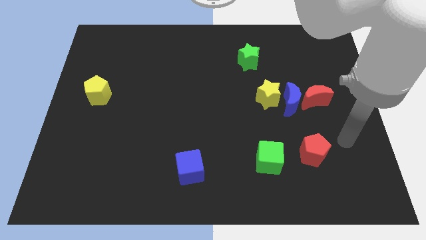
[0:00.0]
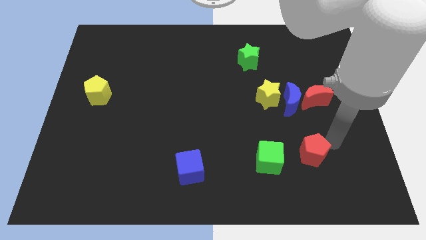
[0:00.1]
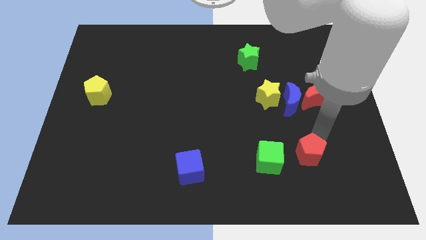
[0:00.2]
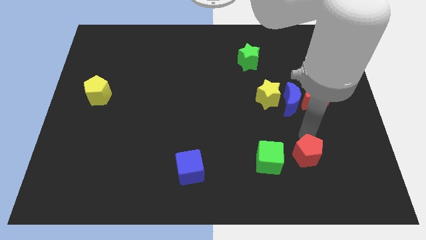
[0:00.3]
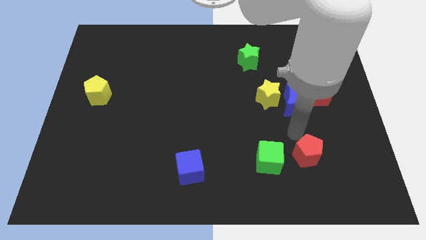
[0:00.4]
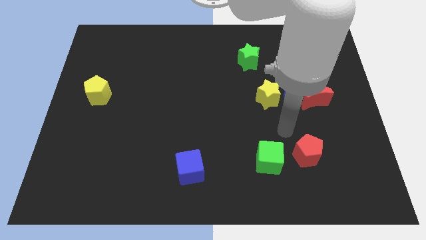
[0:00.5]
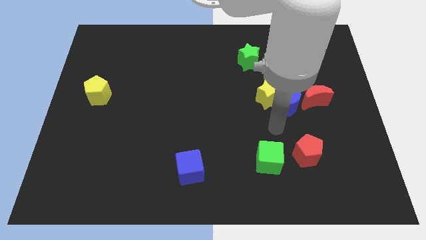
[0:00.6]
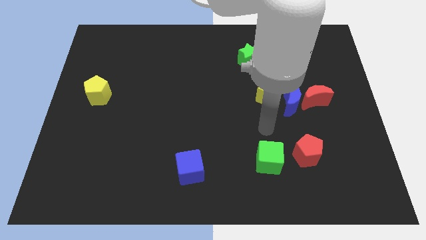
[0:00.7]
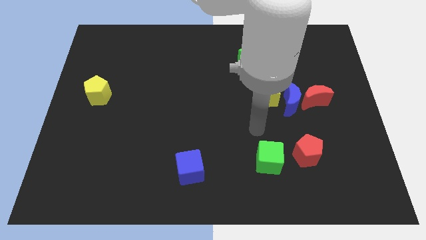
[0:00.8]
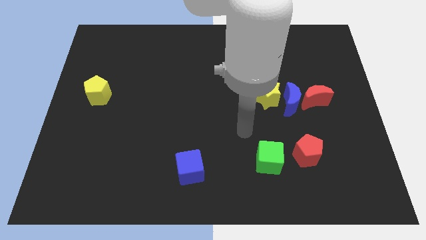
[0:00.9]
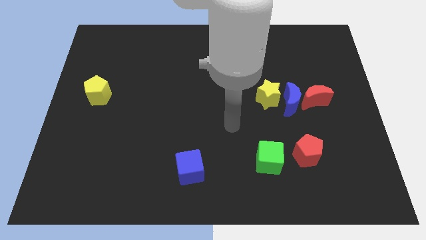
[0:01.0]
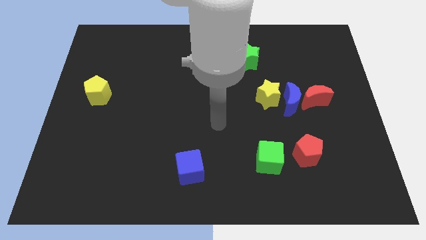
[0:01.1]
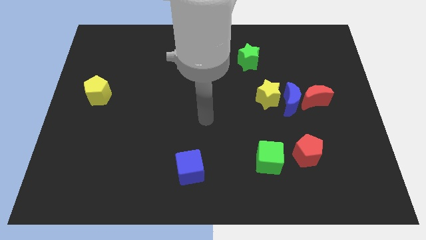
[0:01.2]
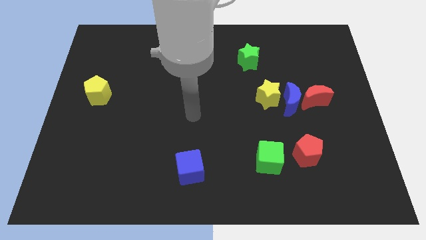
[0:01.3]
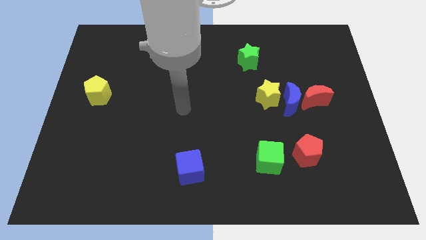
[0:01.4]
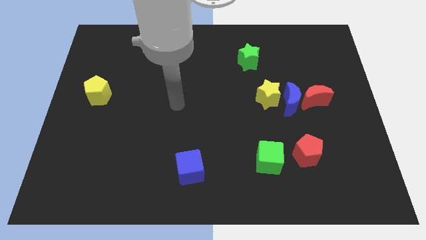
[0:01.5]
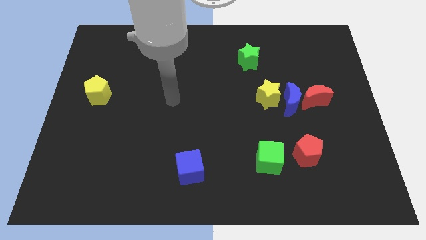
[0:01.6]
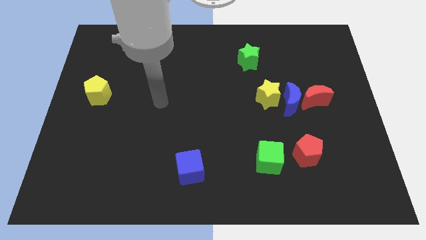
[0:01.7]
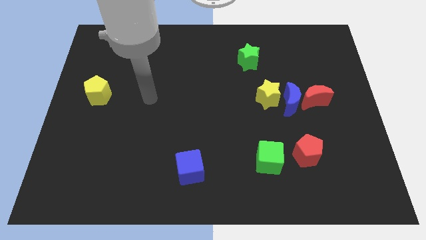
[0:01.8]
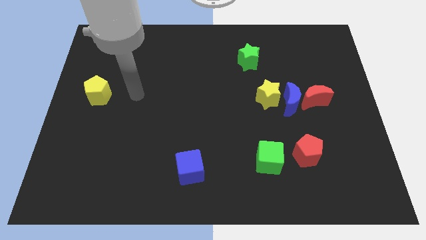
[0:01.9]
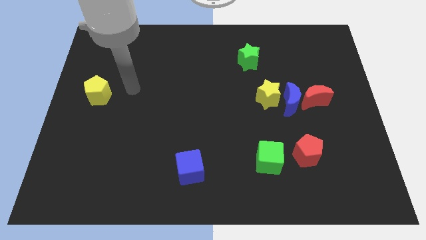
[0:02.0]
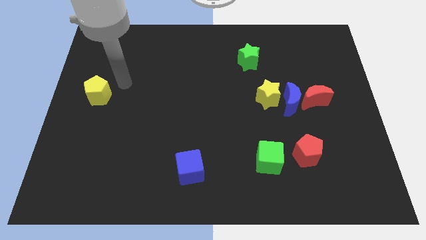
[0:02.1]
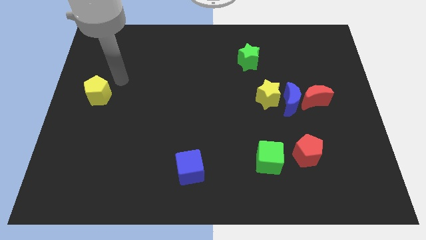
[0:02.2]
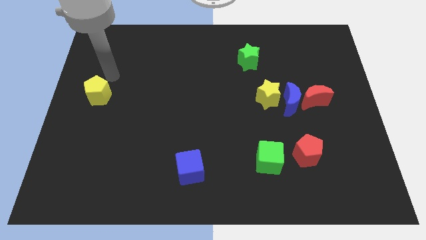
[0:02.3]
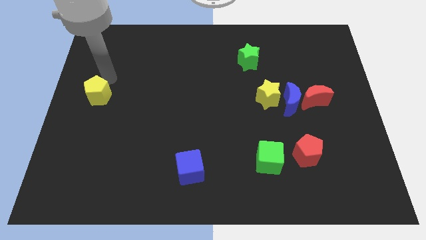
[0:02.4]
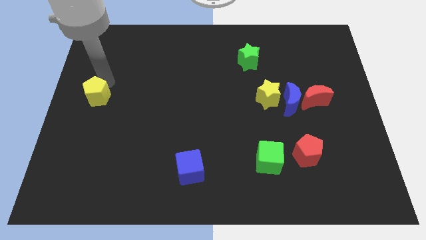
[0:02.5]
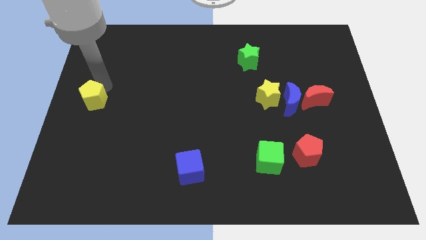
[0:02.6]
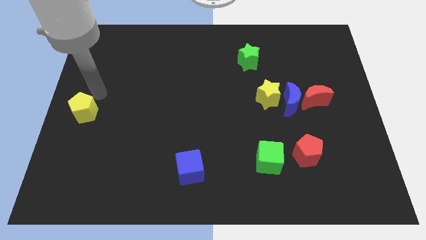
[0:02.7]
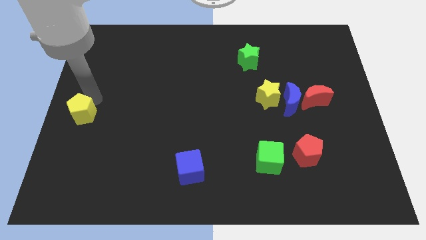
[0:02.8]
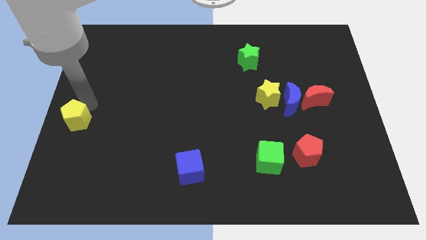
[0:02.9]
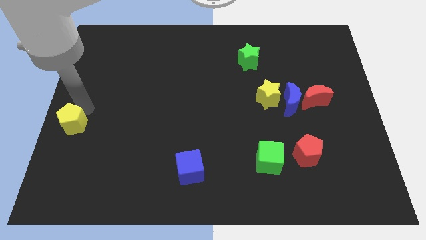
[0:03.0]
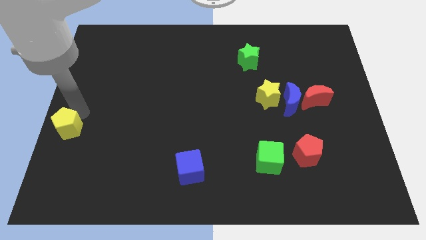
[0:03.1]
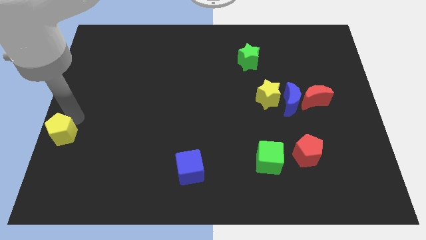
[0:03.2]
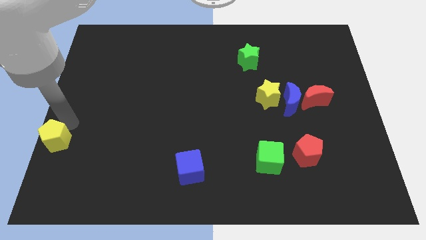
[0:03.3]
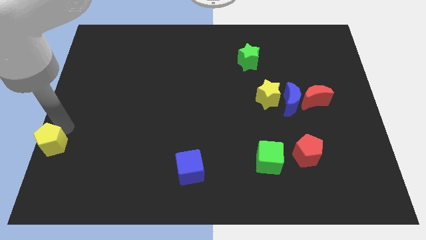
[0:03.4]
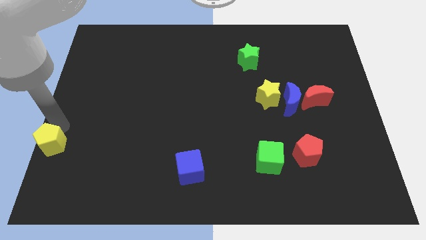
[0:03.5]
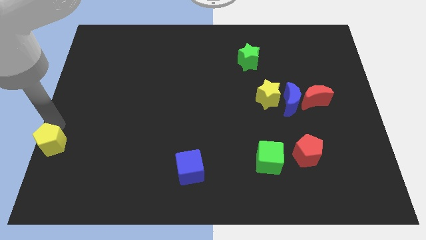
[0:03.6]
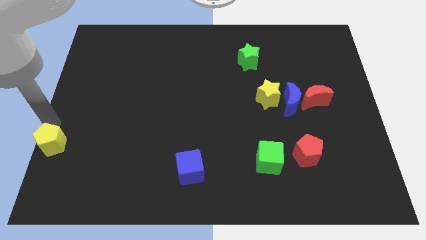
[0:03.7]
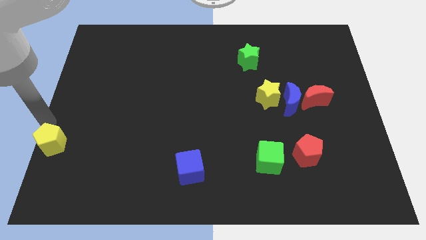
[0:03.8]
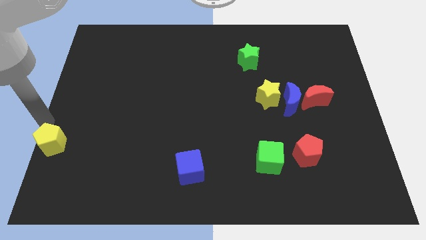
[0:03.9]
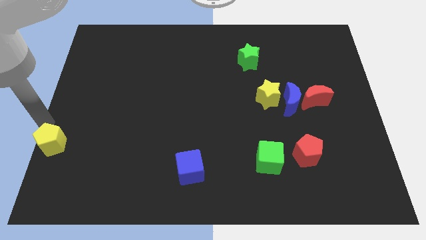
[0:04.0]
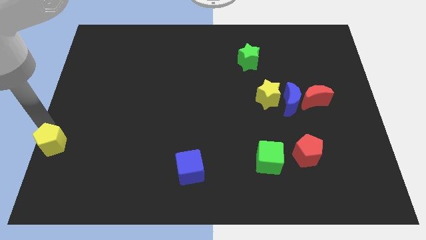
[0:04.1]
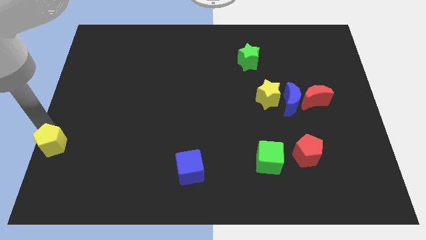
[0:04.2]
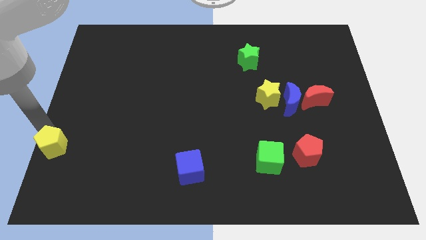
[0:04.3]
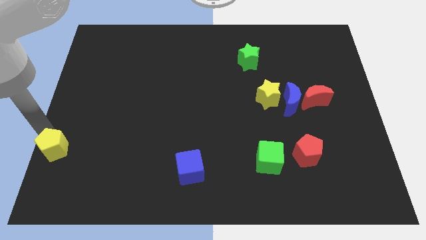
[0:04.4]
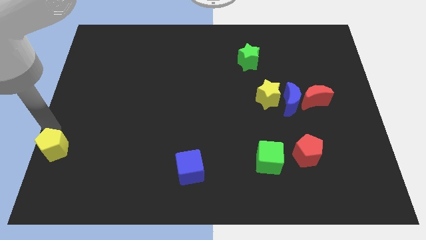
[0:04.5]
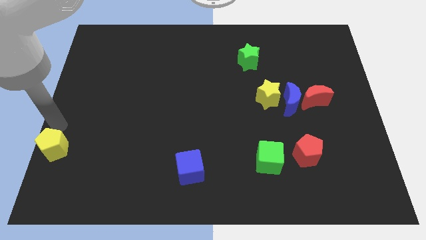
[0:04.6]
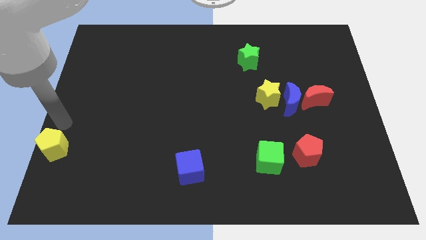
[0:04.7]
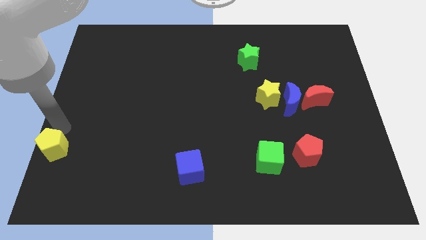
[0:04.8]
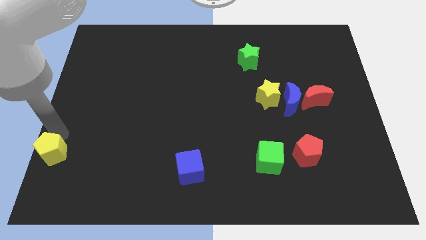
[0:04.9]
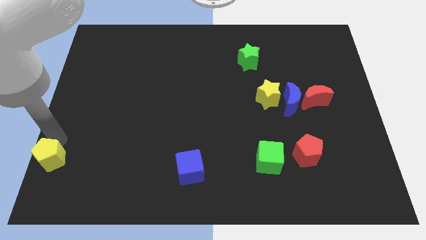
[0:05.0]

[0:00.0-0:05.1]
slide the yellow pentagon to the bottom left

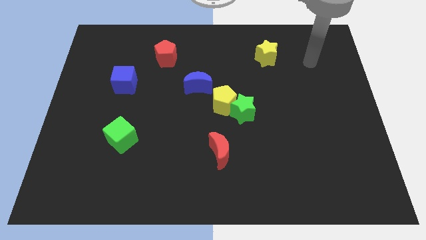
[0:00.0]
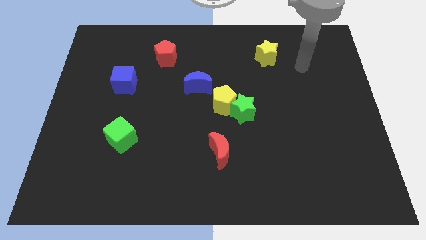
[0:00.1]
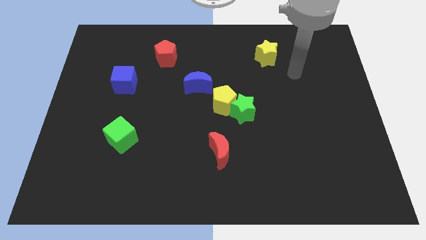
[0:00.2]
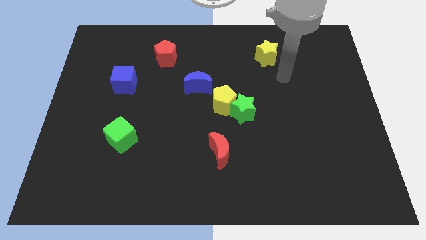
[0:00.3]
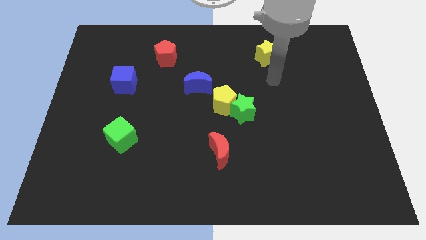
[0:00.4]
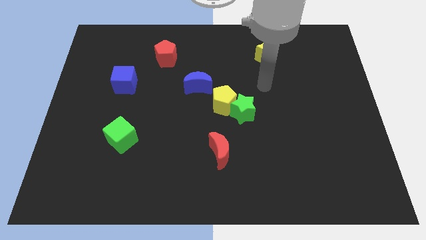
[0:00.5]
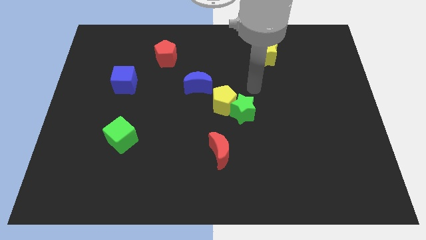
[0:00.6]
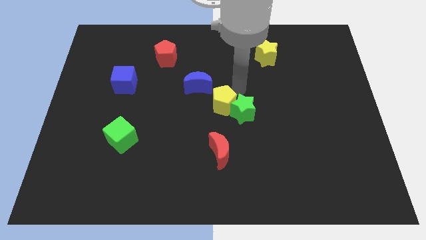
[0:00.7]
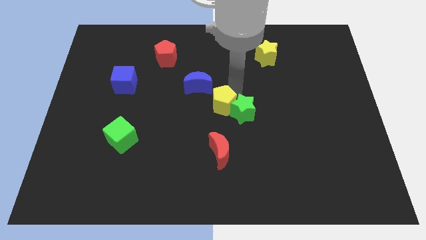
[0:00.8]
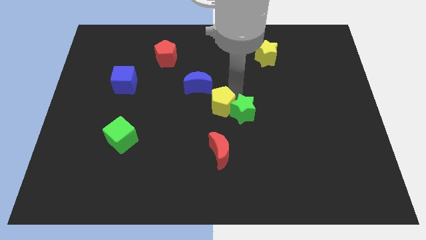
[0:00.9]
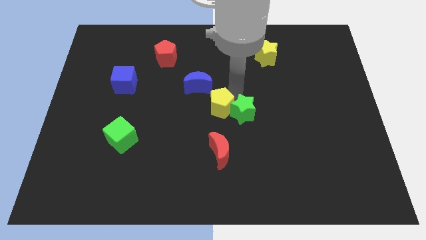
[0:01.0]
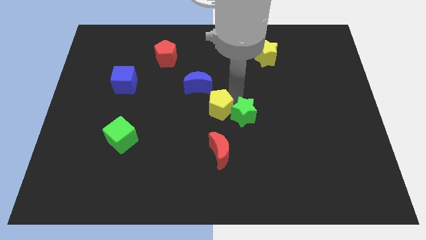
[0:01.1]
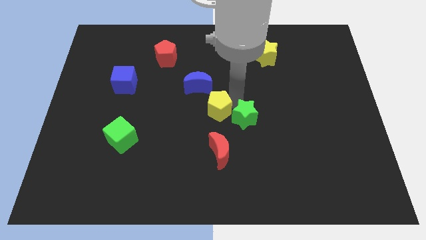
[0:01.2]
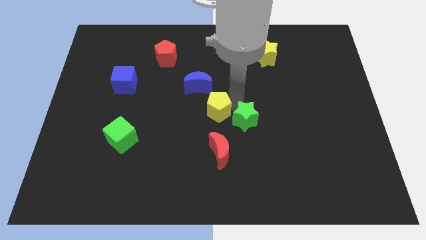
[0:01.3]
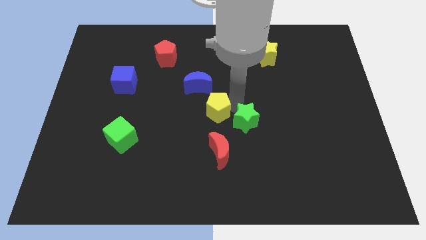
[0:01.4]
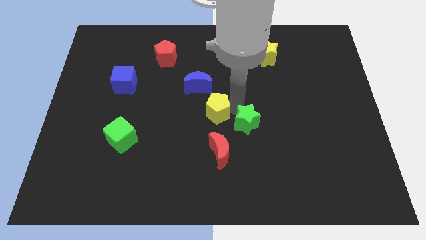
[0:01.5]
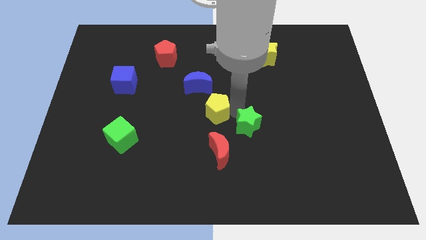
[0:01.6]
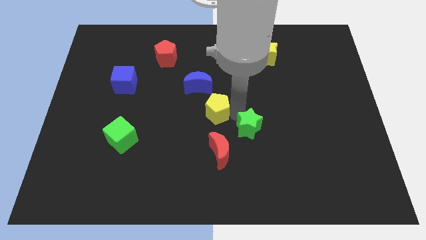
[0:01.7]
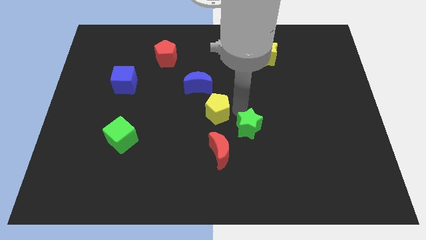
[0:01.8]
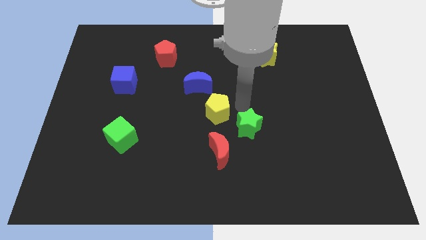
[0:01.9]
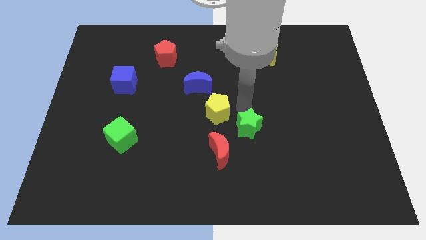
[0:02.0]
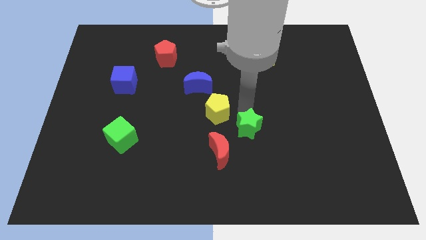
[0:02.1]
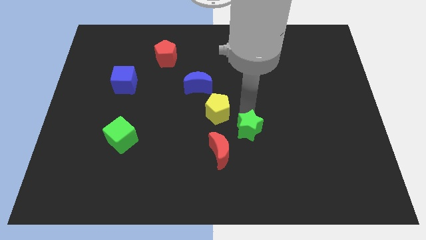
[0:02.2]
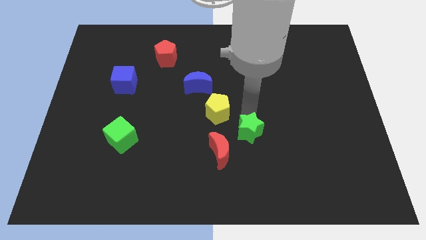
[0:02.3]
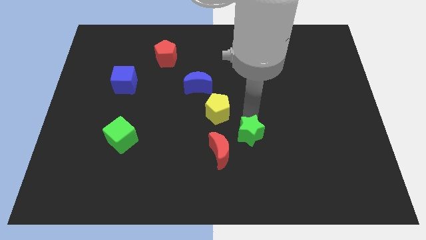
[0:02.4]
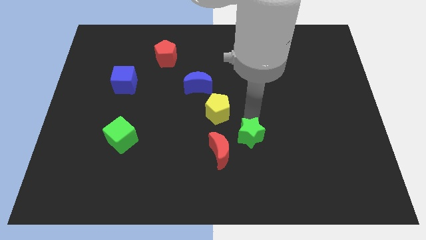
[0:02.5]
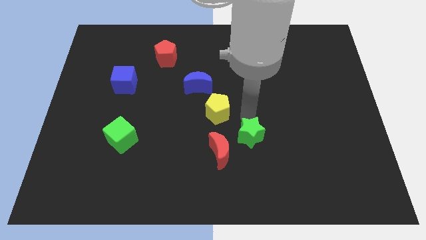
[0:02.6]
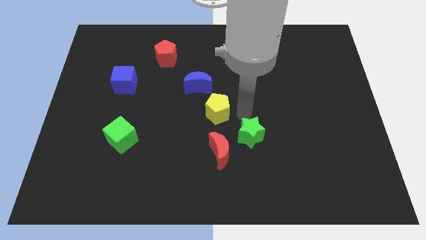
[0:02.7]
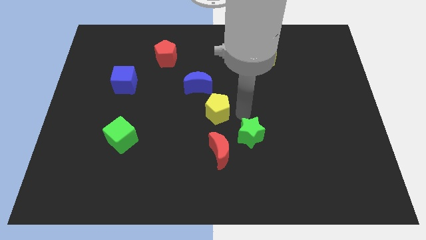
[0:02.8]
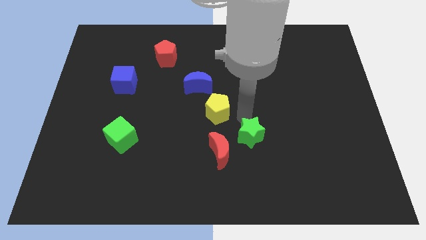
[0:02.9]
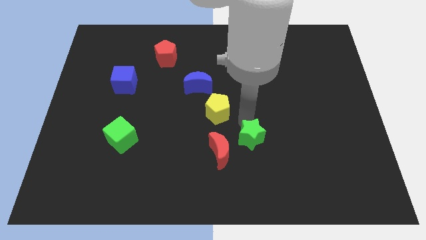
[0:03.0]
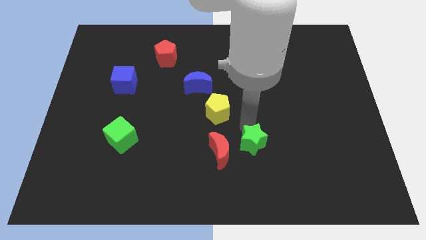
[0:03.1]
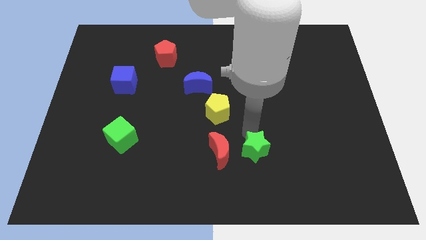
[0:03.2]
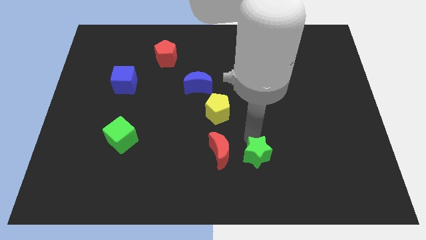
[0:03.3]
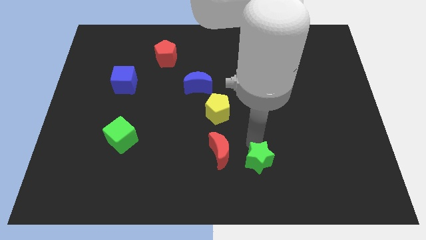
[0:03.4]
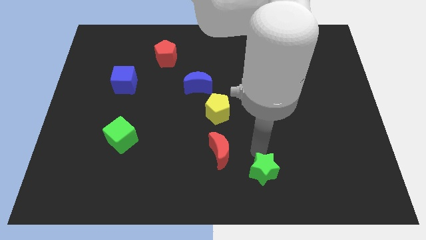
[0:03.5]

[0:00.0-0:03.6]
slide the green star to the bottom
